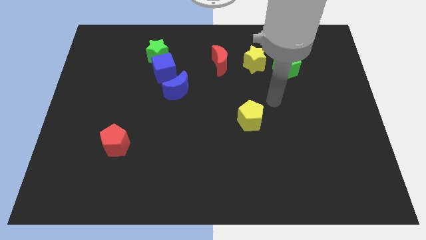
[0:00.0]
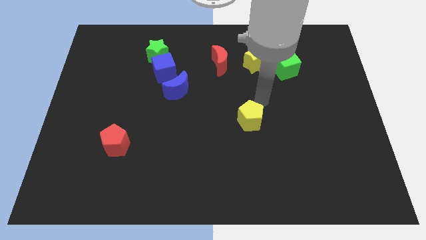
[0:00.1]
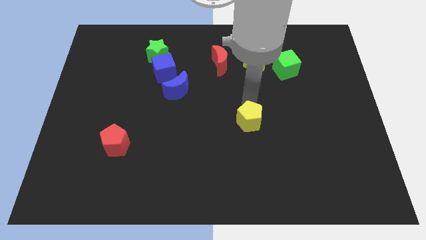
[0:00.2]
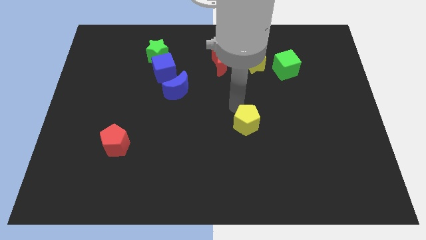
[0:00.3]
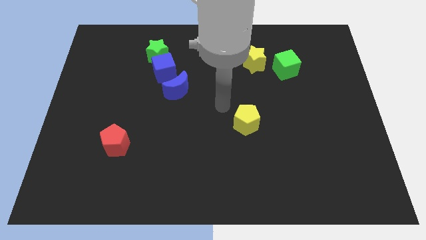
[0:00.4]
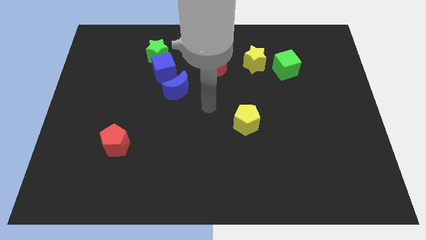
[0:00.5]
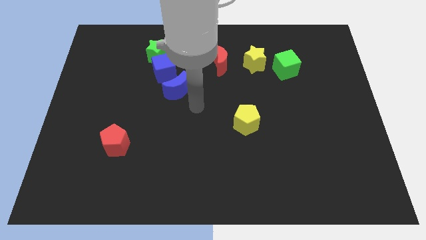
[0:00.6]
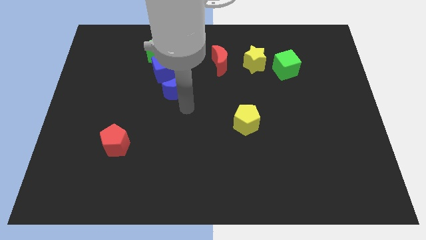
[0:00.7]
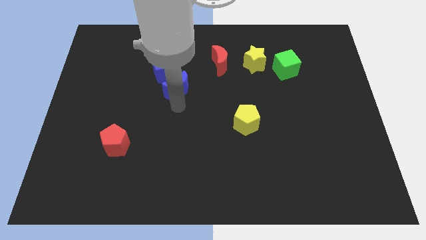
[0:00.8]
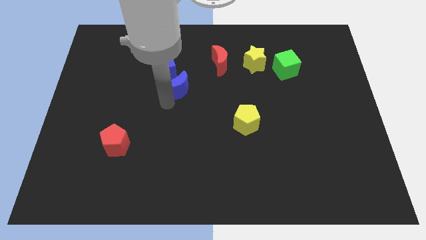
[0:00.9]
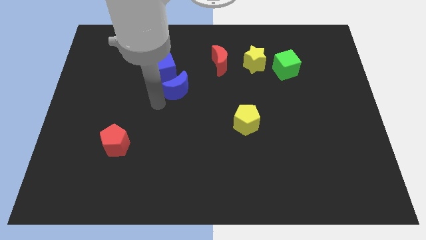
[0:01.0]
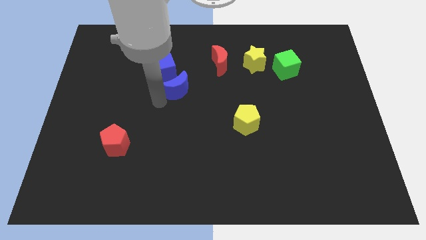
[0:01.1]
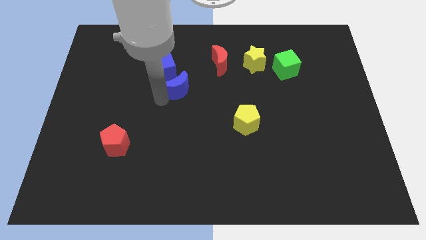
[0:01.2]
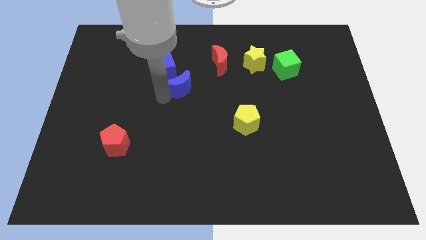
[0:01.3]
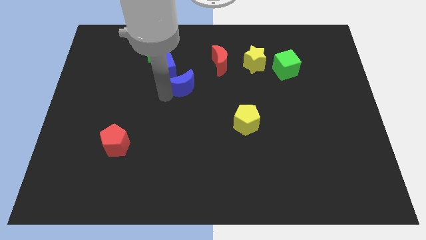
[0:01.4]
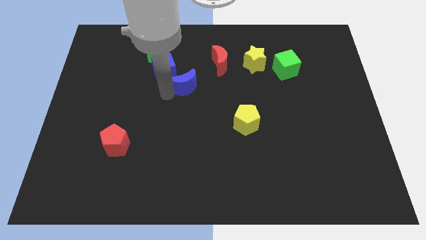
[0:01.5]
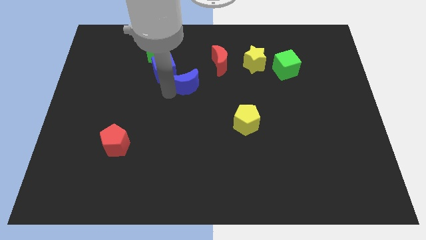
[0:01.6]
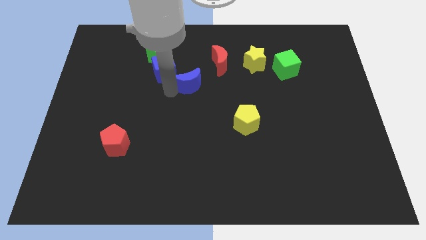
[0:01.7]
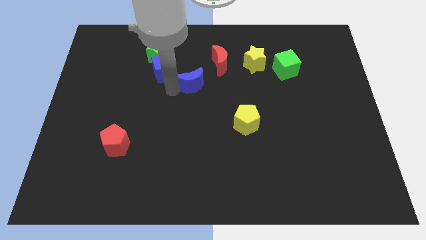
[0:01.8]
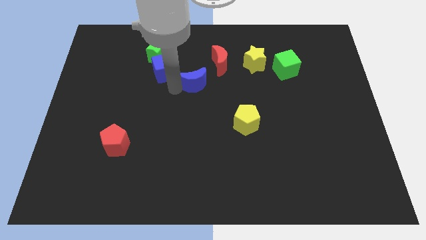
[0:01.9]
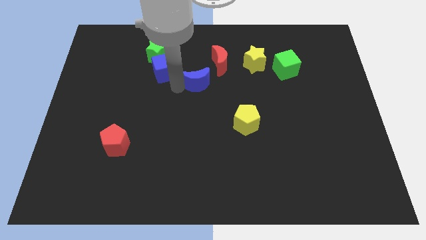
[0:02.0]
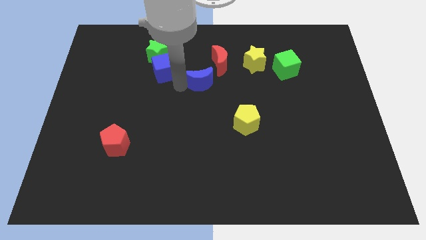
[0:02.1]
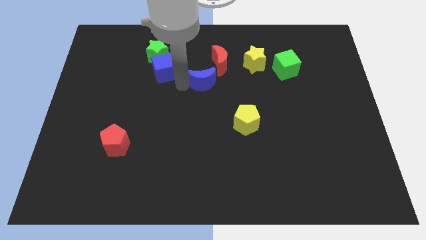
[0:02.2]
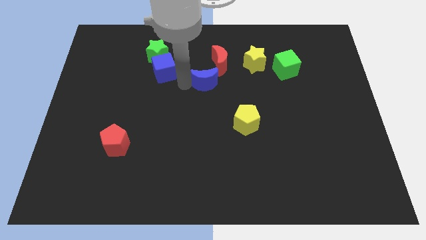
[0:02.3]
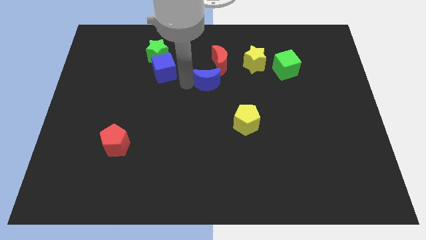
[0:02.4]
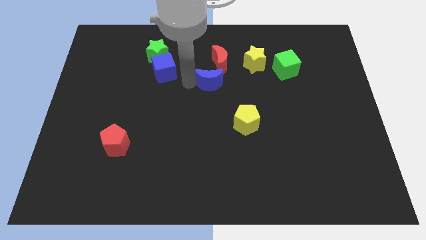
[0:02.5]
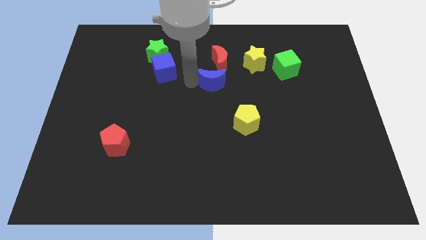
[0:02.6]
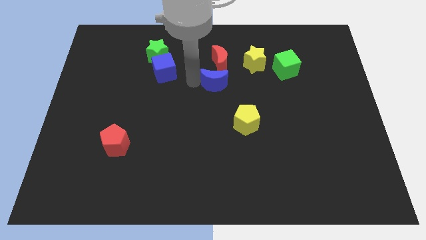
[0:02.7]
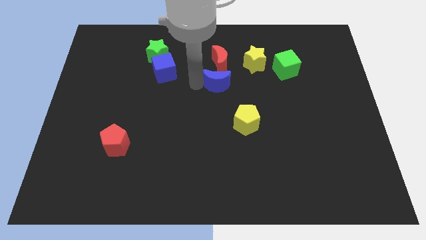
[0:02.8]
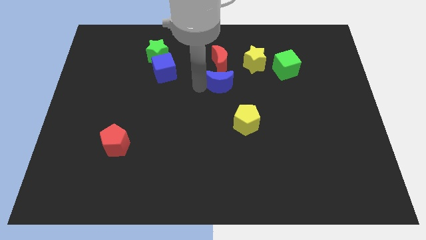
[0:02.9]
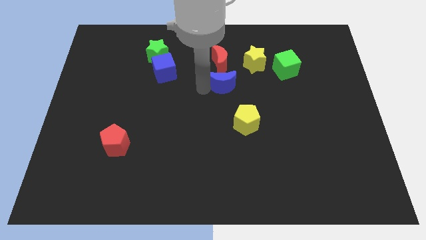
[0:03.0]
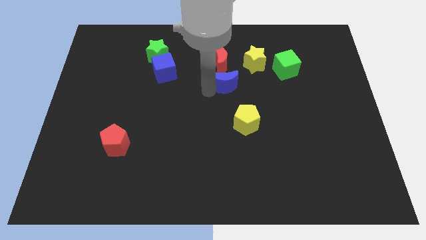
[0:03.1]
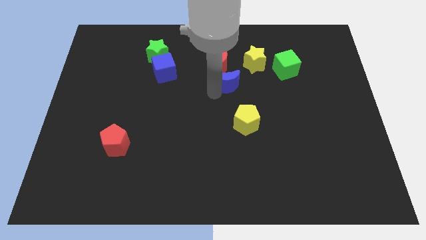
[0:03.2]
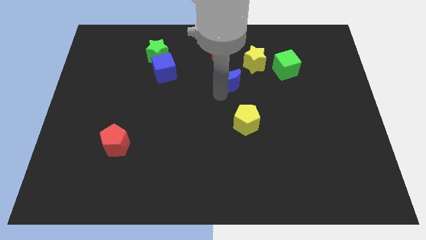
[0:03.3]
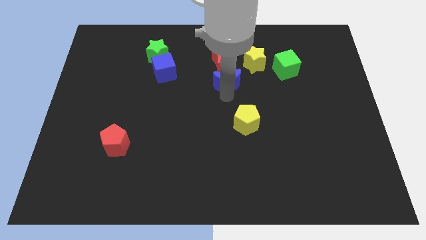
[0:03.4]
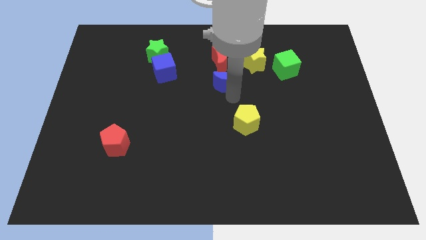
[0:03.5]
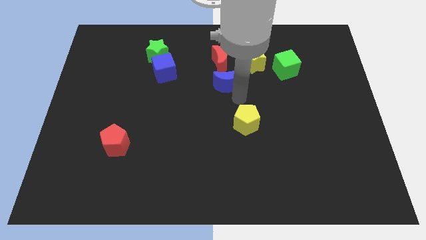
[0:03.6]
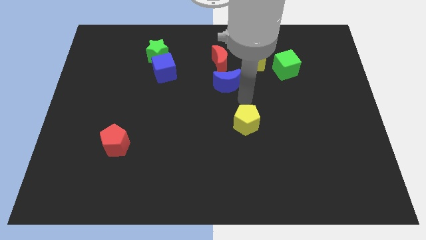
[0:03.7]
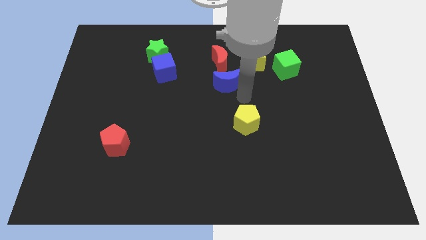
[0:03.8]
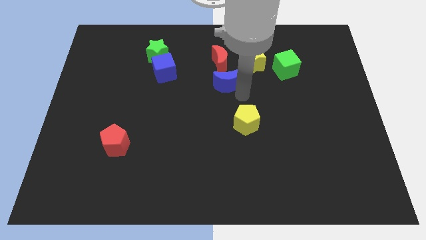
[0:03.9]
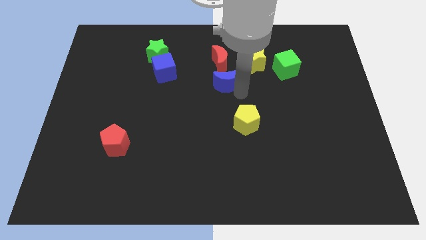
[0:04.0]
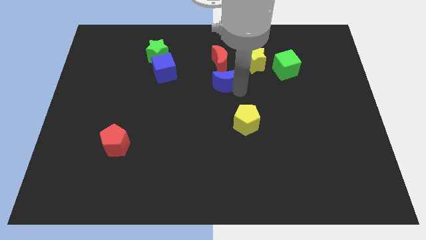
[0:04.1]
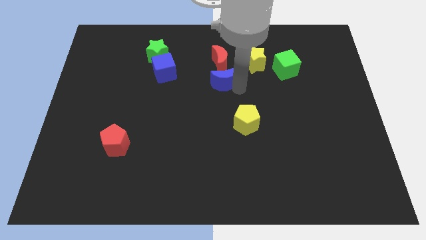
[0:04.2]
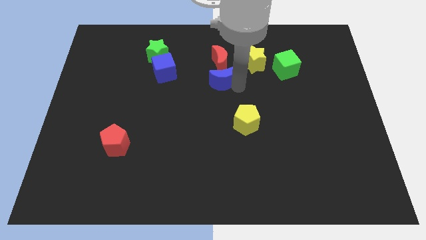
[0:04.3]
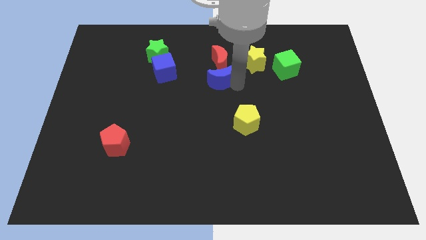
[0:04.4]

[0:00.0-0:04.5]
push the blue moon close to the red moon

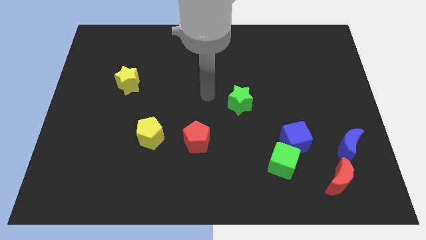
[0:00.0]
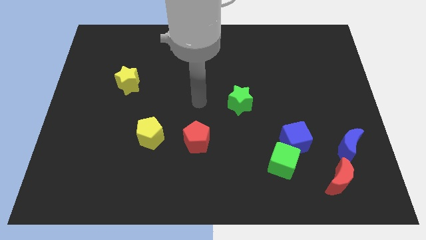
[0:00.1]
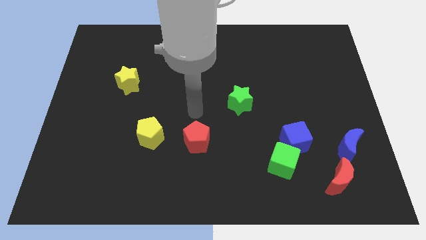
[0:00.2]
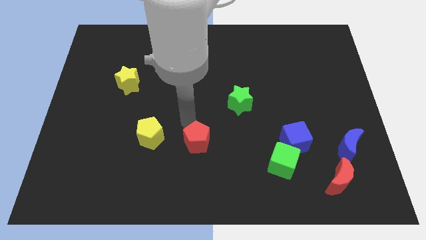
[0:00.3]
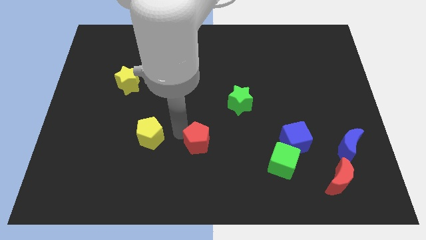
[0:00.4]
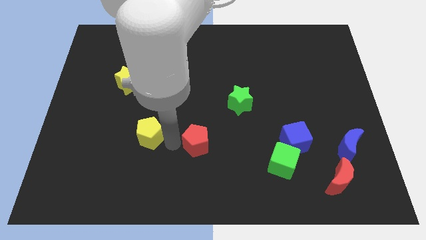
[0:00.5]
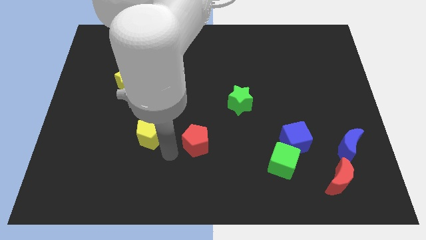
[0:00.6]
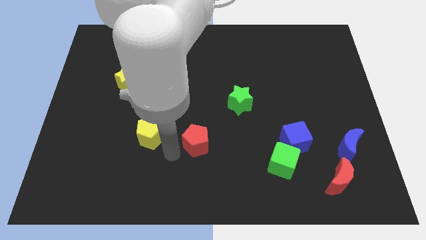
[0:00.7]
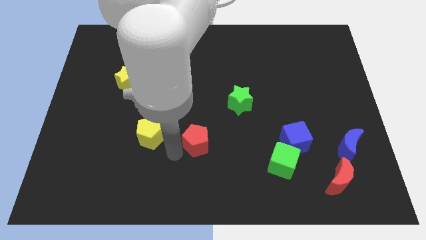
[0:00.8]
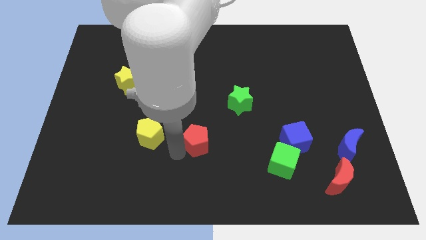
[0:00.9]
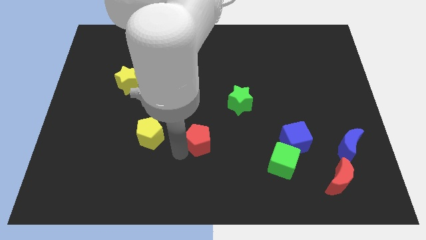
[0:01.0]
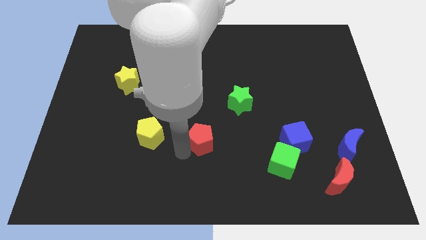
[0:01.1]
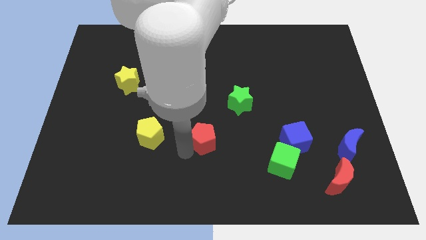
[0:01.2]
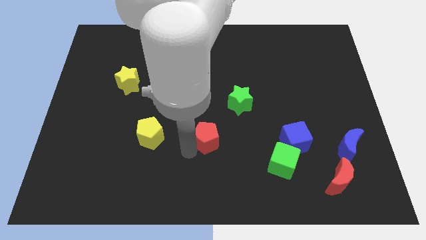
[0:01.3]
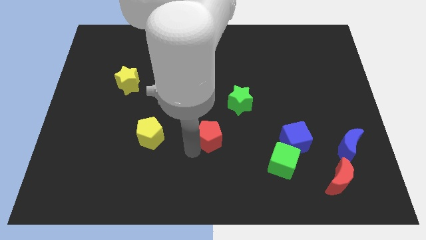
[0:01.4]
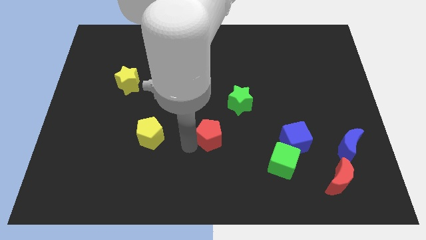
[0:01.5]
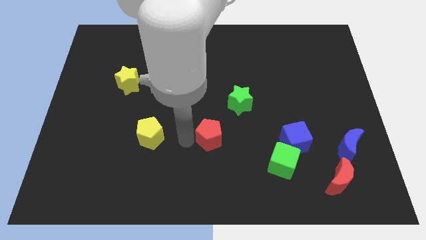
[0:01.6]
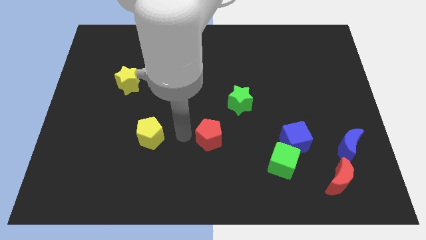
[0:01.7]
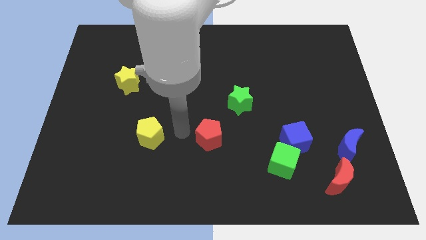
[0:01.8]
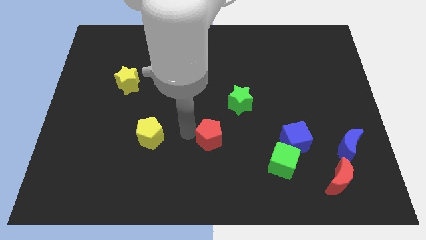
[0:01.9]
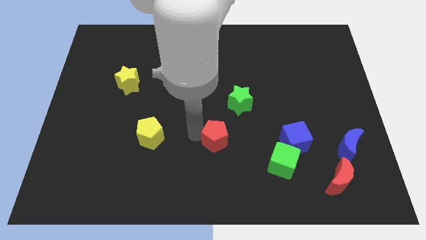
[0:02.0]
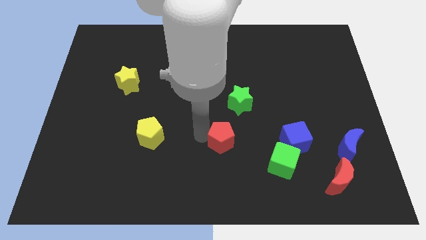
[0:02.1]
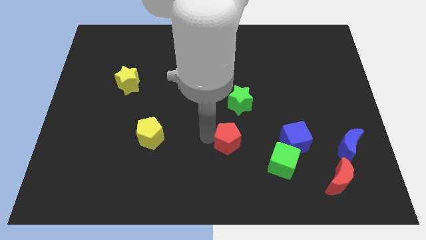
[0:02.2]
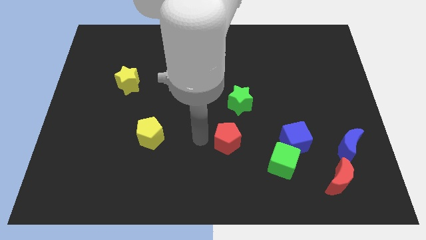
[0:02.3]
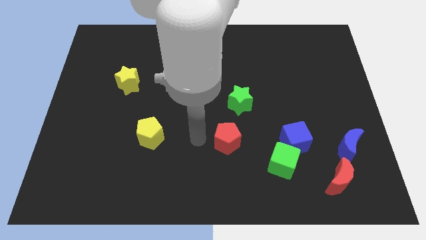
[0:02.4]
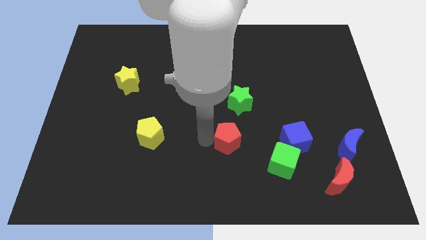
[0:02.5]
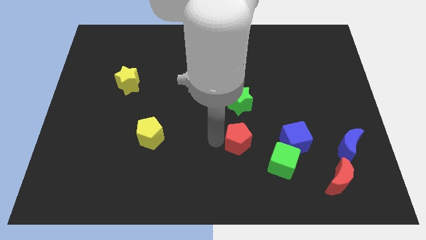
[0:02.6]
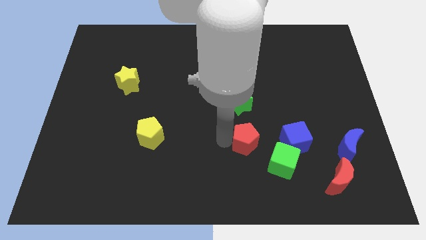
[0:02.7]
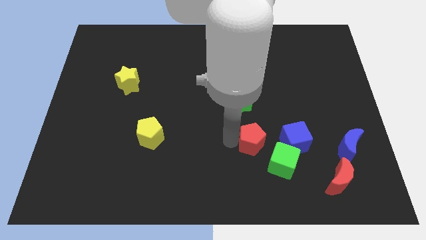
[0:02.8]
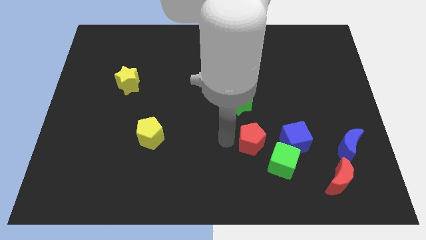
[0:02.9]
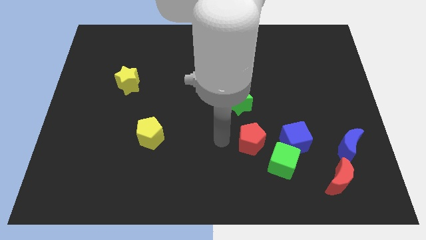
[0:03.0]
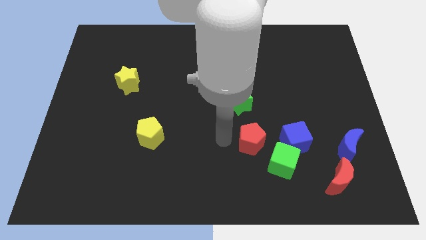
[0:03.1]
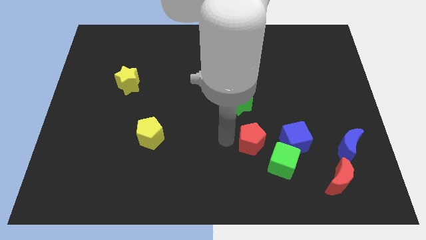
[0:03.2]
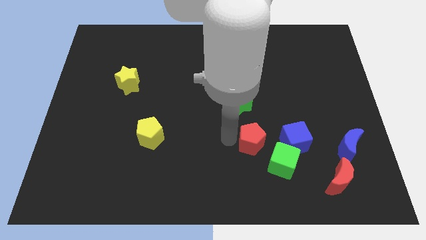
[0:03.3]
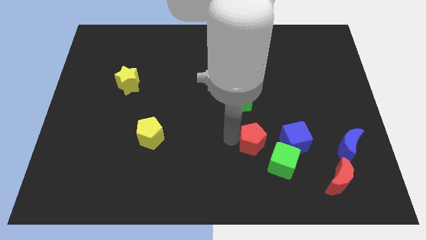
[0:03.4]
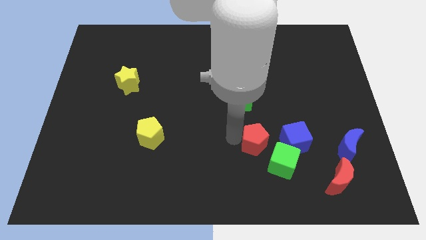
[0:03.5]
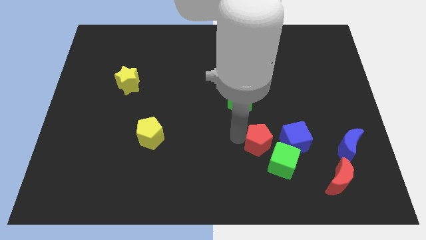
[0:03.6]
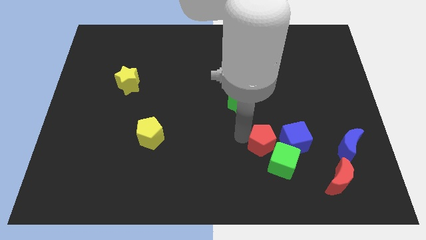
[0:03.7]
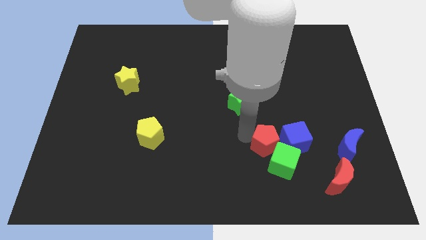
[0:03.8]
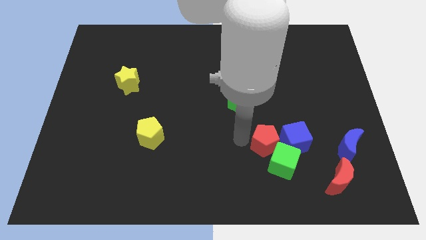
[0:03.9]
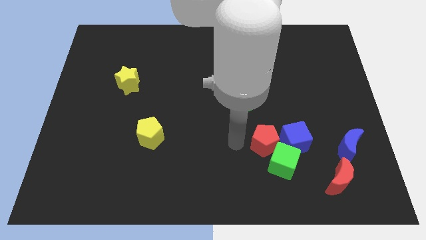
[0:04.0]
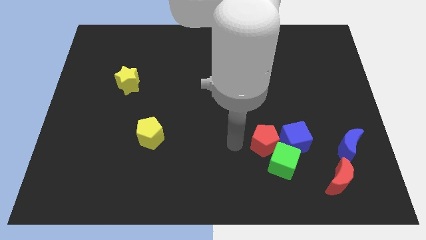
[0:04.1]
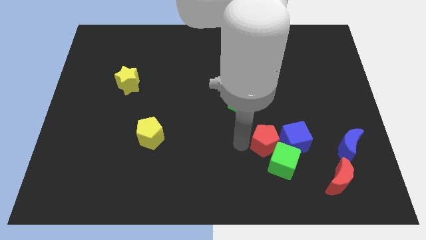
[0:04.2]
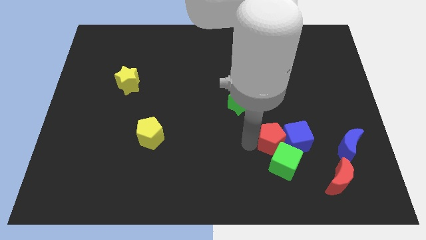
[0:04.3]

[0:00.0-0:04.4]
put the red pentagon towards the blue cube
